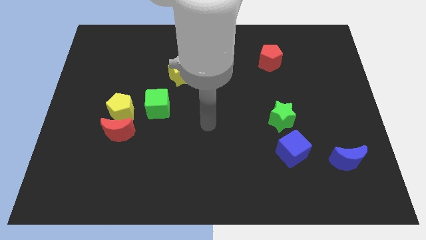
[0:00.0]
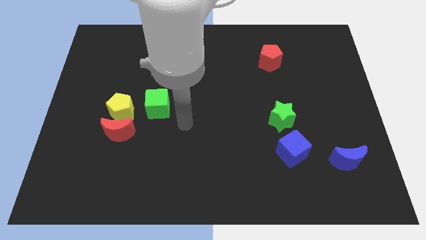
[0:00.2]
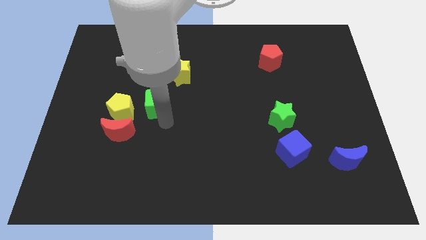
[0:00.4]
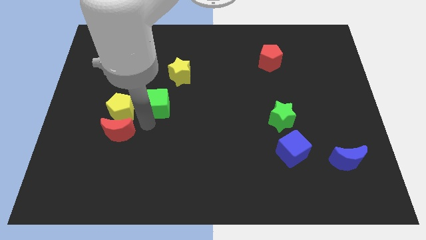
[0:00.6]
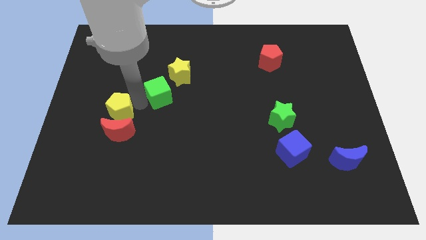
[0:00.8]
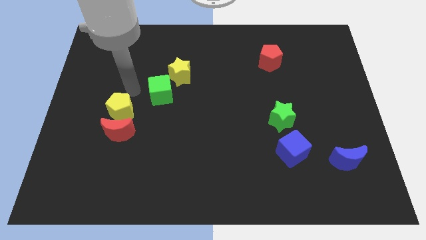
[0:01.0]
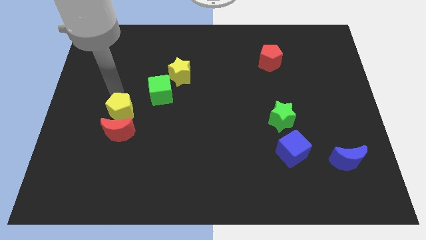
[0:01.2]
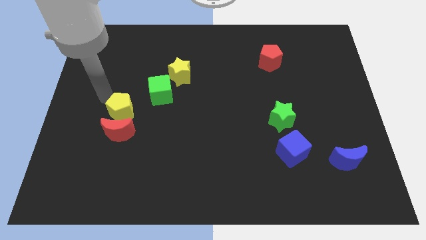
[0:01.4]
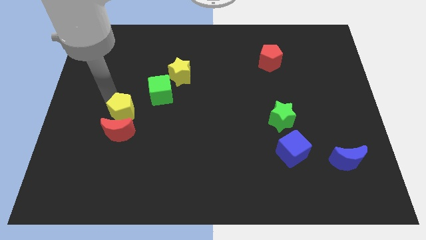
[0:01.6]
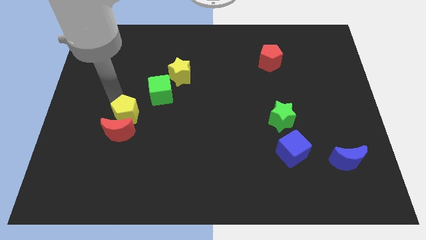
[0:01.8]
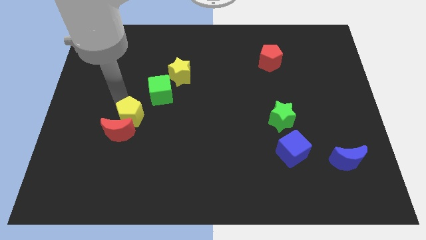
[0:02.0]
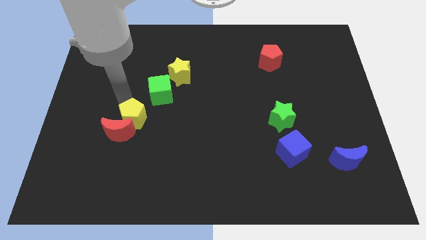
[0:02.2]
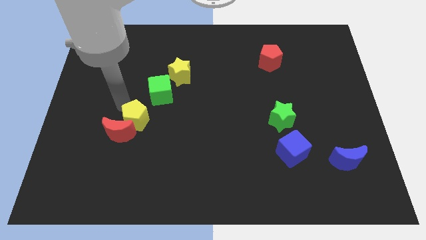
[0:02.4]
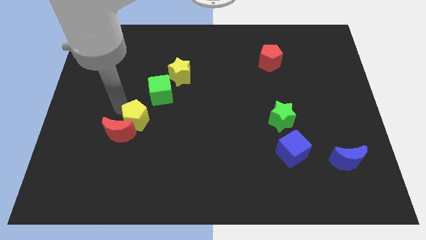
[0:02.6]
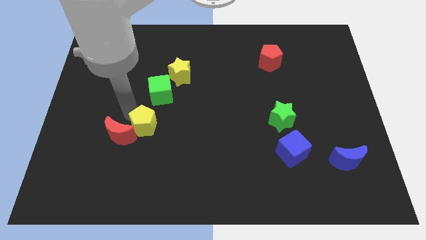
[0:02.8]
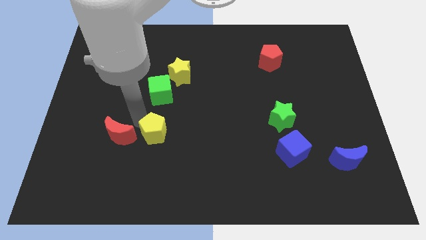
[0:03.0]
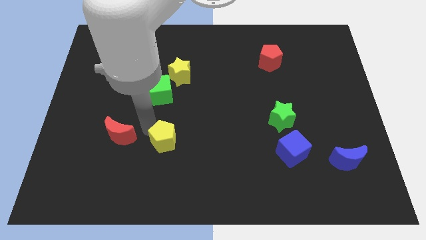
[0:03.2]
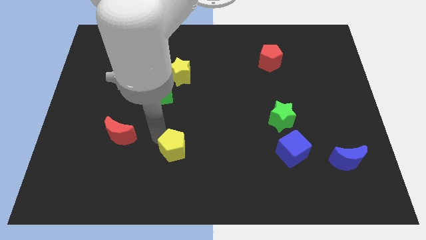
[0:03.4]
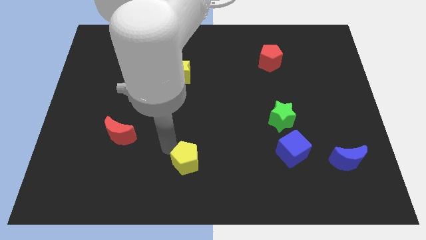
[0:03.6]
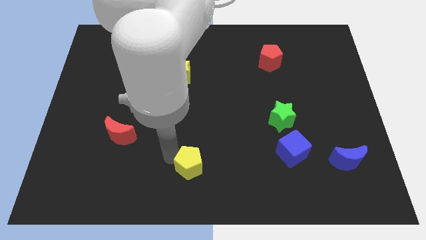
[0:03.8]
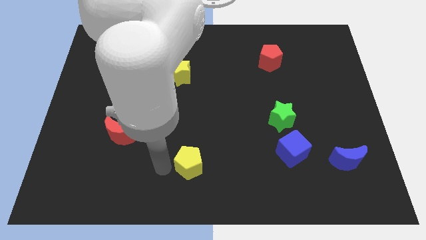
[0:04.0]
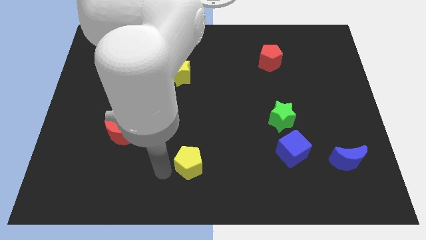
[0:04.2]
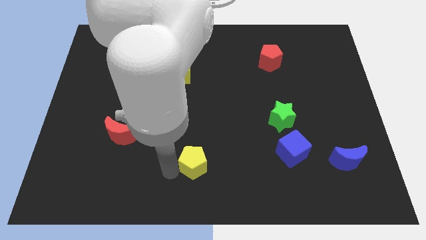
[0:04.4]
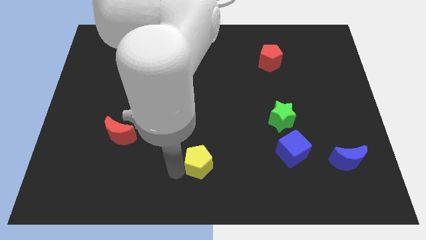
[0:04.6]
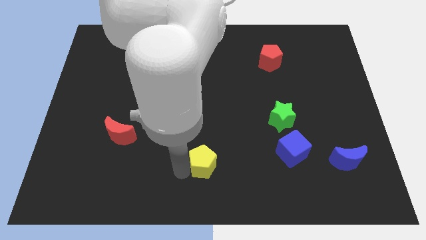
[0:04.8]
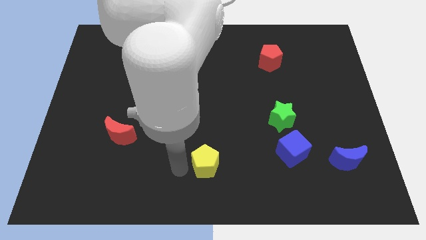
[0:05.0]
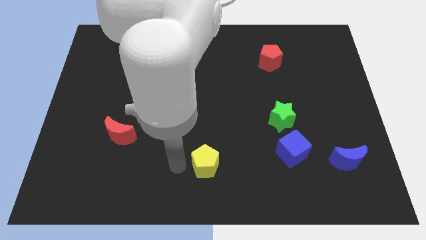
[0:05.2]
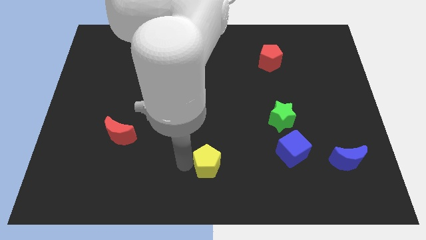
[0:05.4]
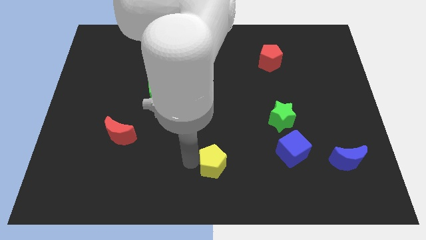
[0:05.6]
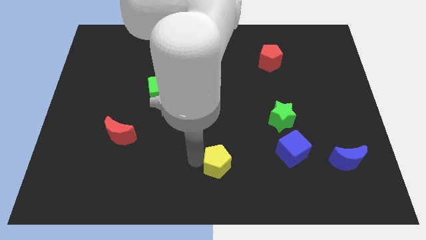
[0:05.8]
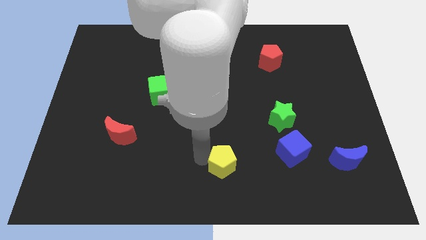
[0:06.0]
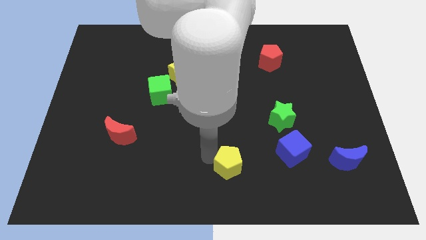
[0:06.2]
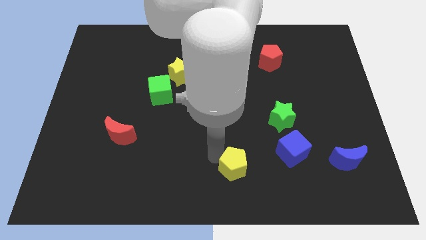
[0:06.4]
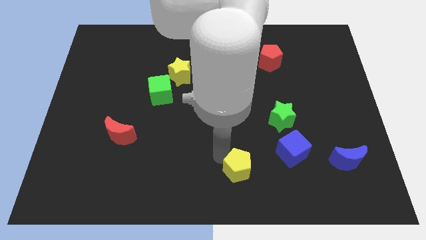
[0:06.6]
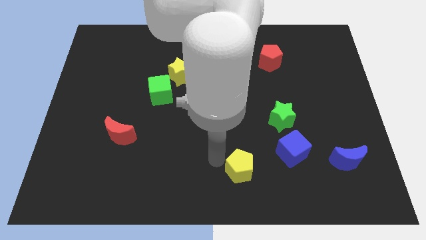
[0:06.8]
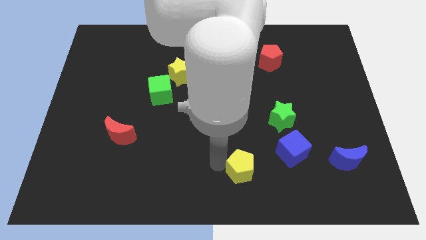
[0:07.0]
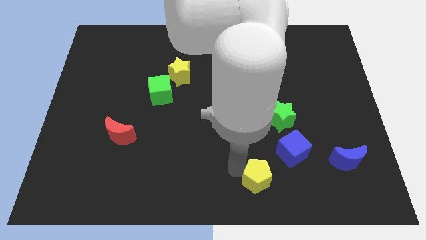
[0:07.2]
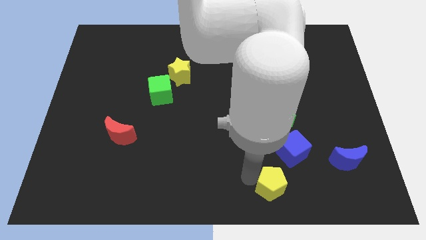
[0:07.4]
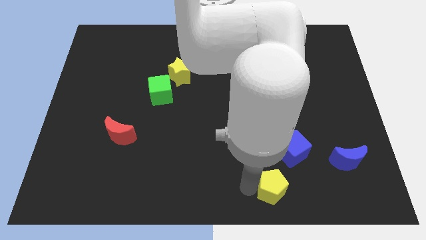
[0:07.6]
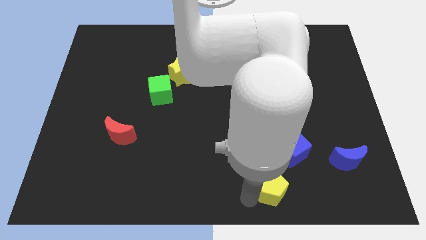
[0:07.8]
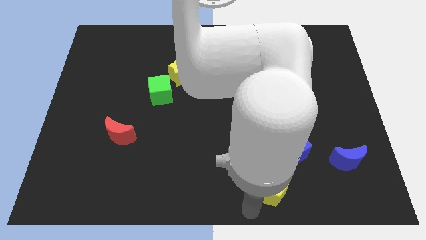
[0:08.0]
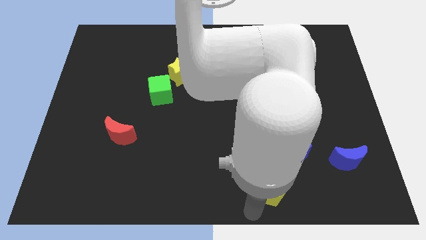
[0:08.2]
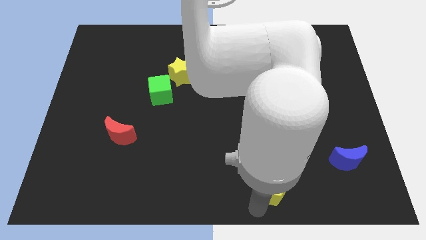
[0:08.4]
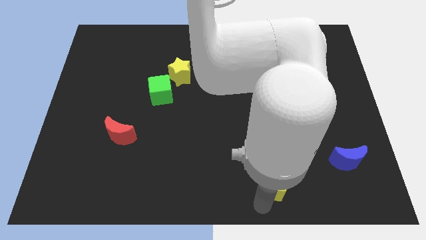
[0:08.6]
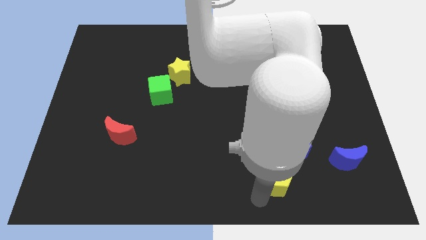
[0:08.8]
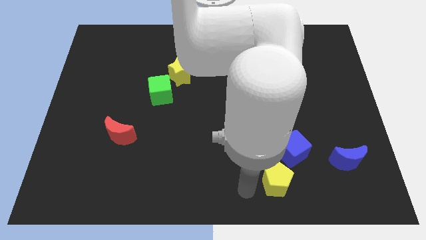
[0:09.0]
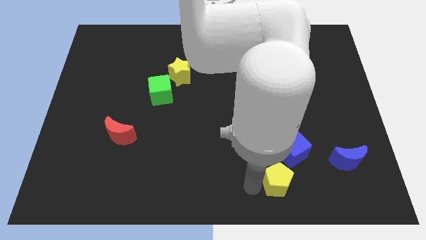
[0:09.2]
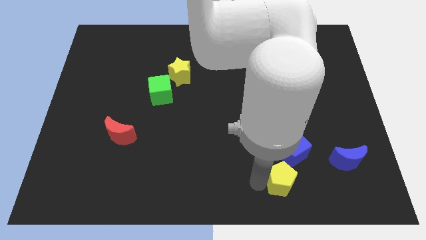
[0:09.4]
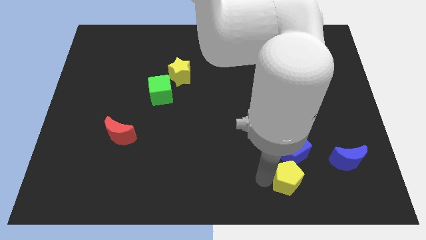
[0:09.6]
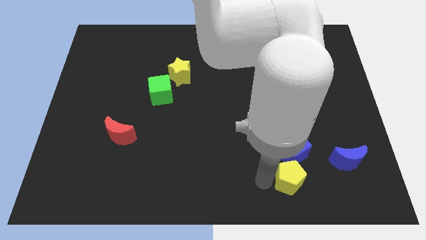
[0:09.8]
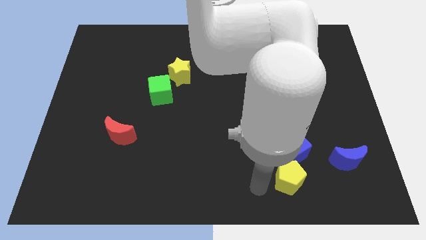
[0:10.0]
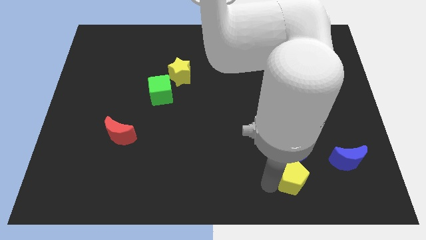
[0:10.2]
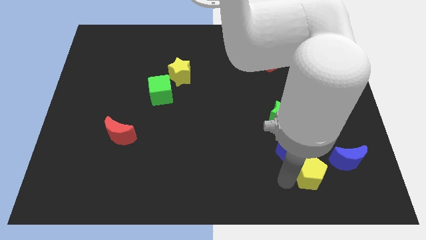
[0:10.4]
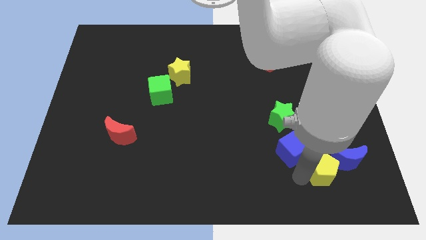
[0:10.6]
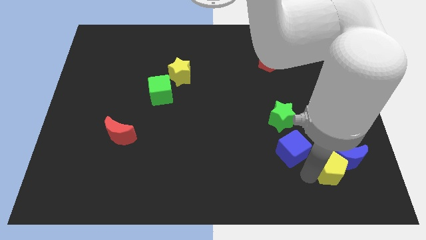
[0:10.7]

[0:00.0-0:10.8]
push the yellow pentagon towards the blue moon

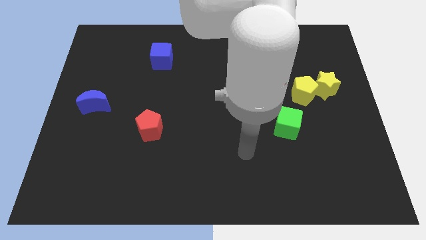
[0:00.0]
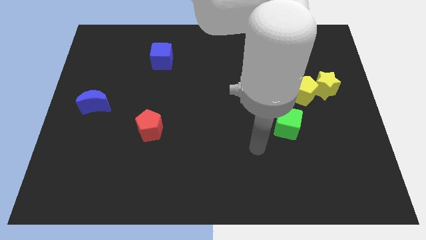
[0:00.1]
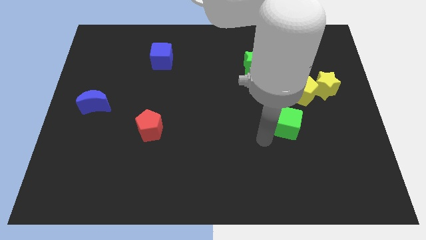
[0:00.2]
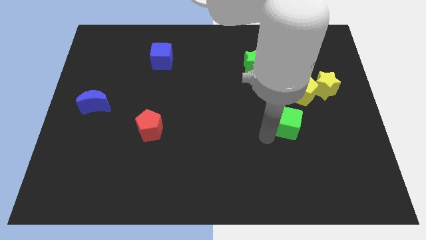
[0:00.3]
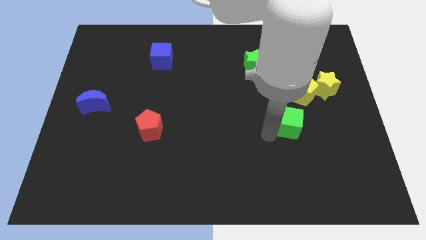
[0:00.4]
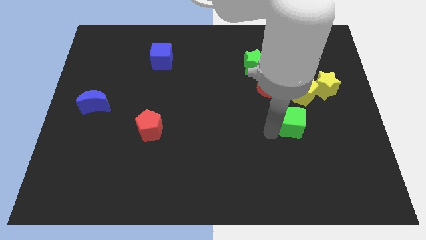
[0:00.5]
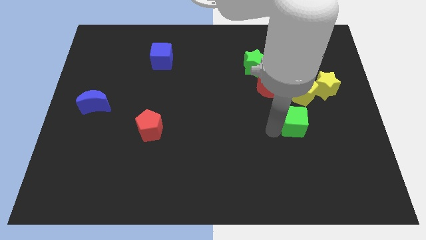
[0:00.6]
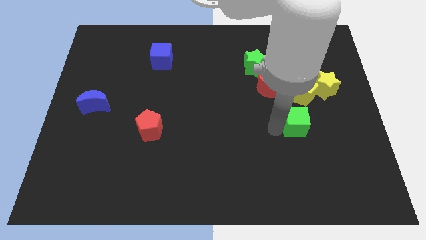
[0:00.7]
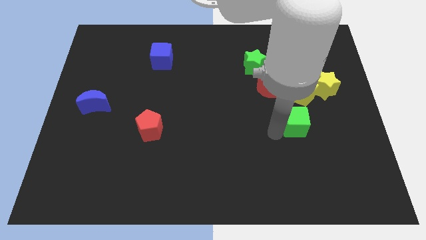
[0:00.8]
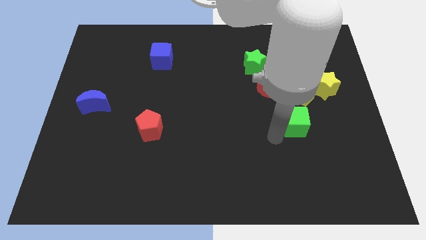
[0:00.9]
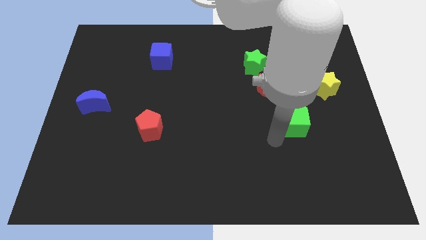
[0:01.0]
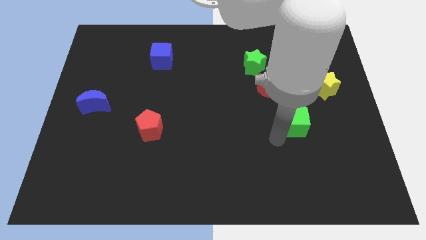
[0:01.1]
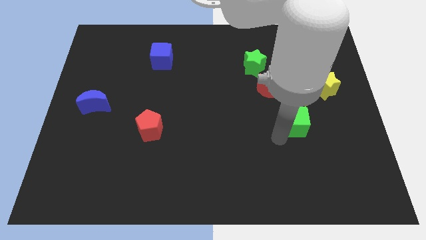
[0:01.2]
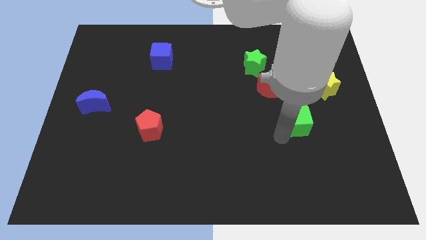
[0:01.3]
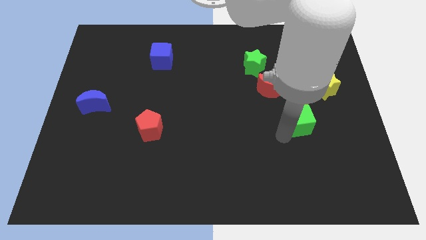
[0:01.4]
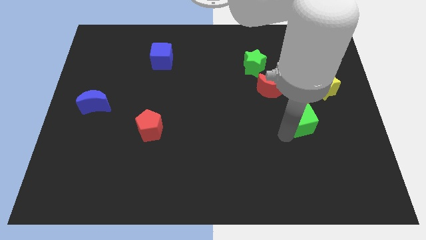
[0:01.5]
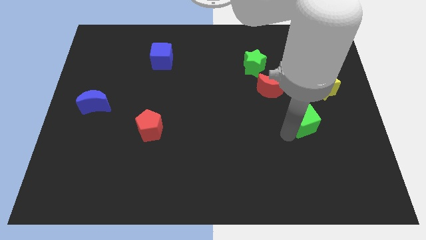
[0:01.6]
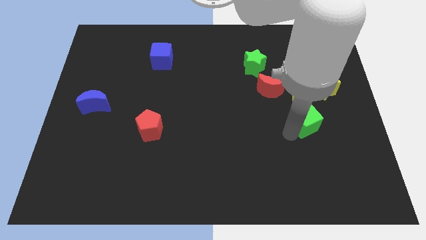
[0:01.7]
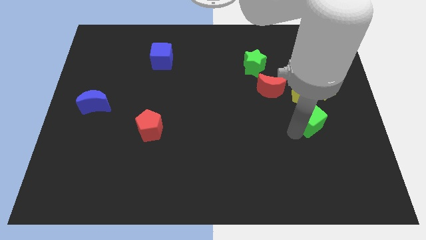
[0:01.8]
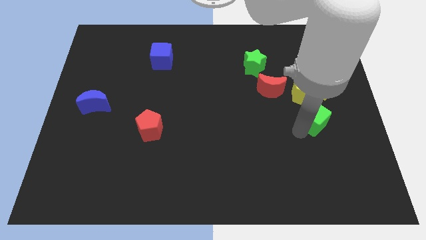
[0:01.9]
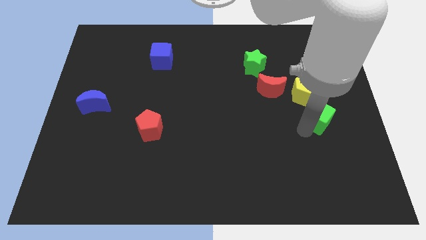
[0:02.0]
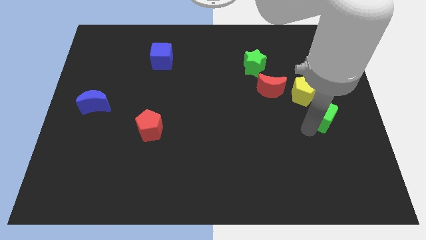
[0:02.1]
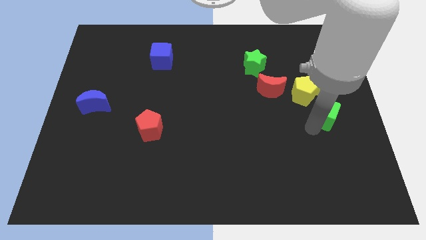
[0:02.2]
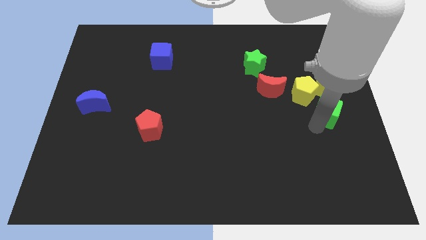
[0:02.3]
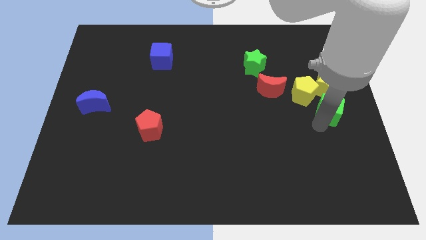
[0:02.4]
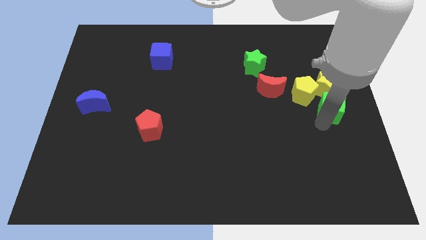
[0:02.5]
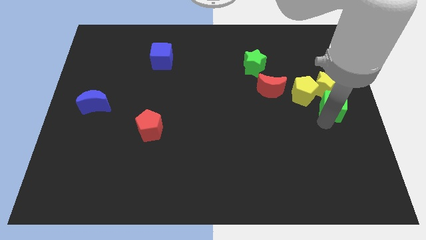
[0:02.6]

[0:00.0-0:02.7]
push the green cube close to the yellow star
